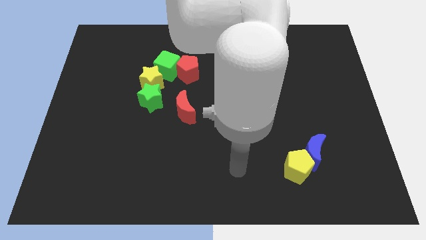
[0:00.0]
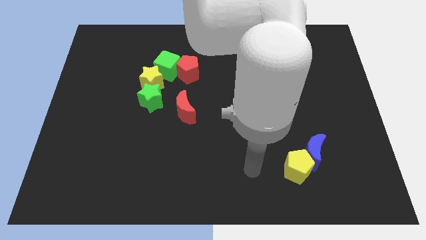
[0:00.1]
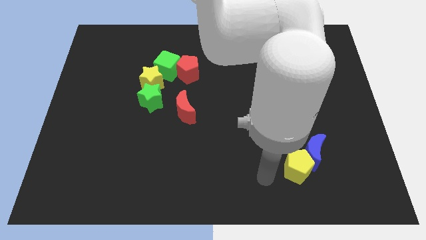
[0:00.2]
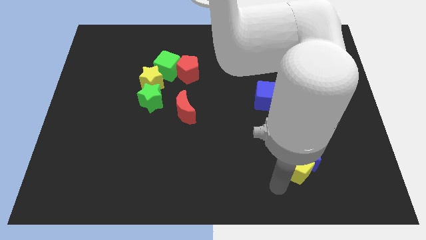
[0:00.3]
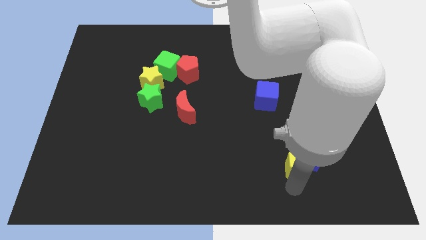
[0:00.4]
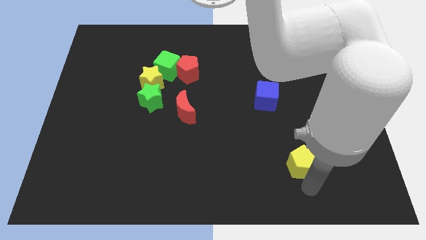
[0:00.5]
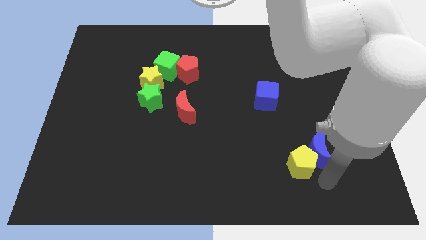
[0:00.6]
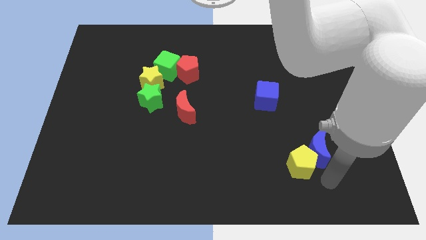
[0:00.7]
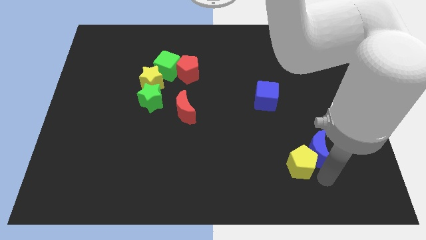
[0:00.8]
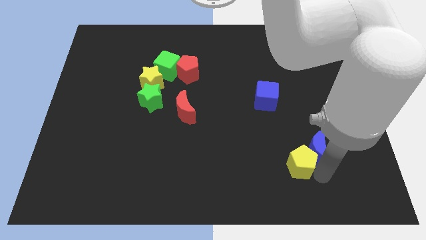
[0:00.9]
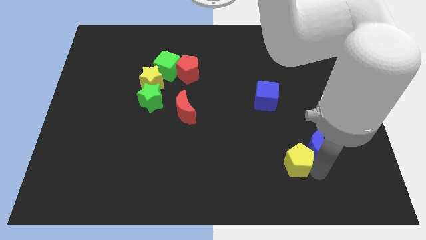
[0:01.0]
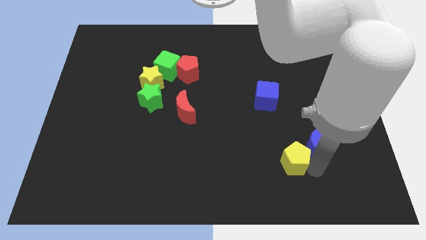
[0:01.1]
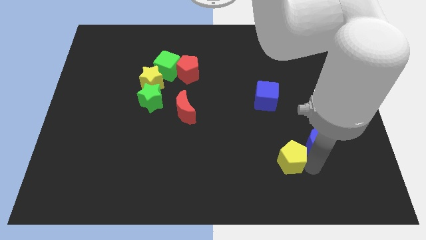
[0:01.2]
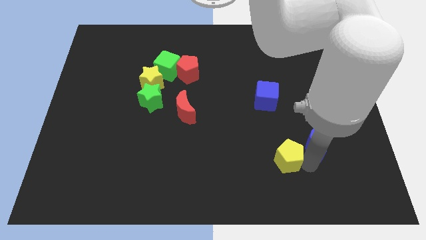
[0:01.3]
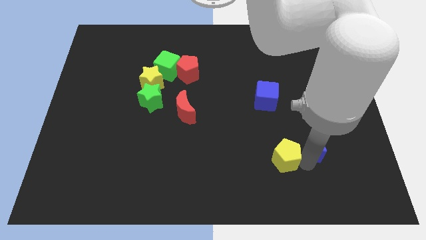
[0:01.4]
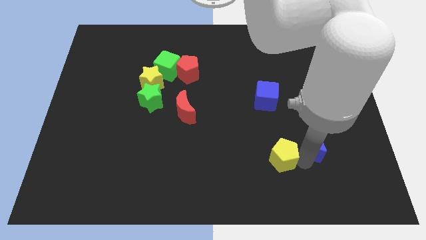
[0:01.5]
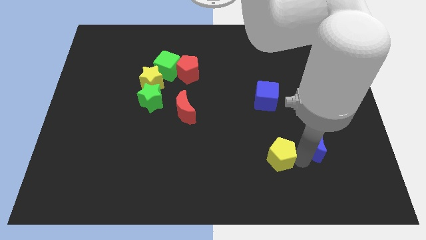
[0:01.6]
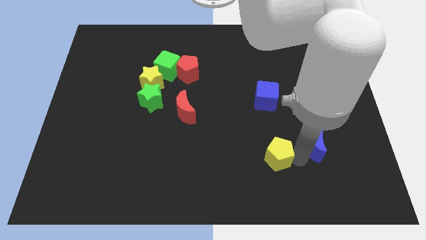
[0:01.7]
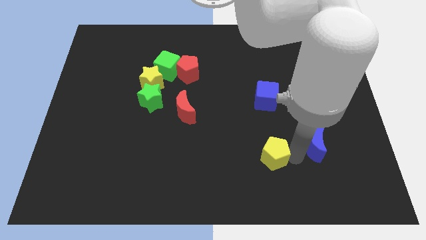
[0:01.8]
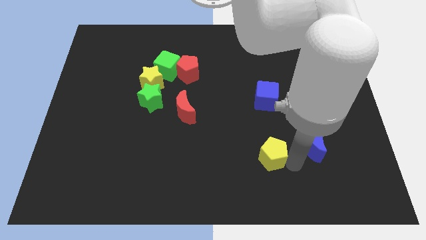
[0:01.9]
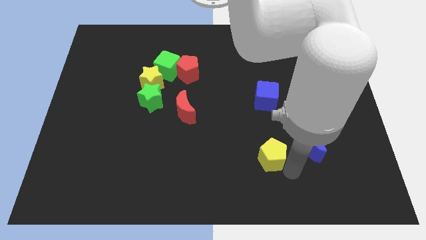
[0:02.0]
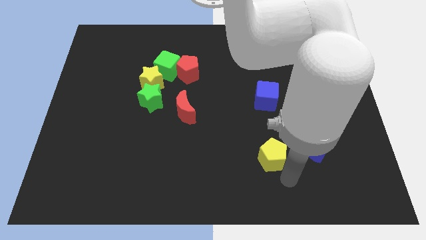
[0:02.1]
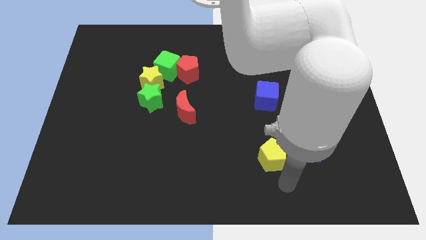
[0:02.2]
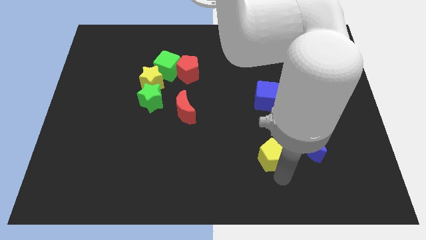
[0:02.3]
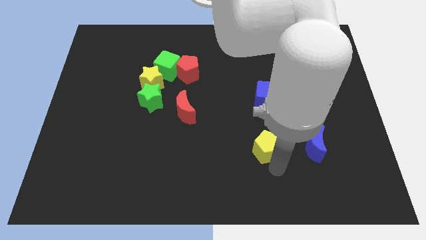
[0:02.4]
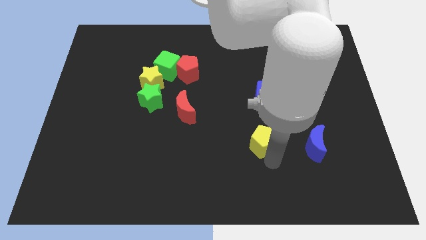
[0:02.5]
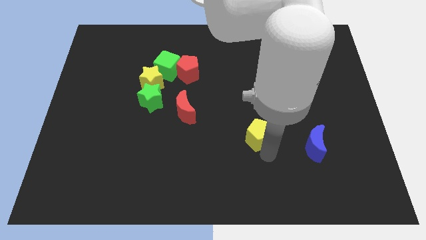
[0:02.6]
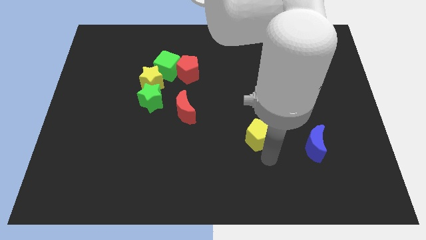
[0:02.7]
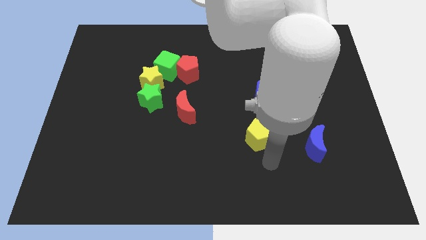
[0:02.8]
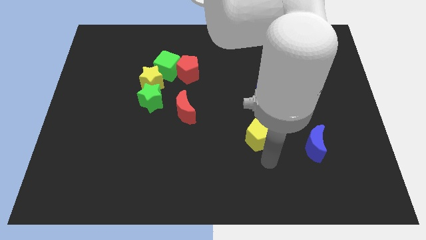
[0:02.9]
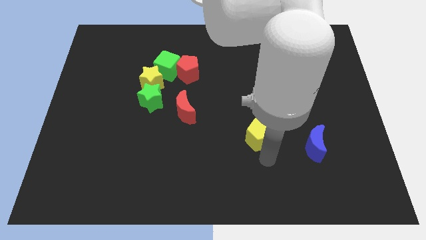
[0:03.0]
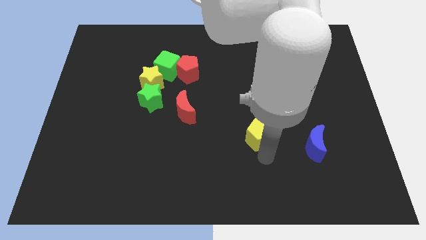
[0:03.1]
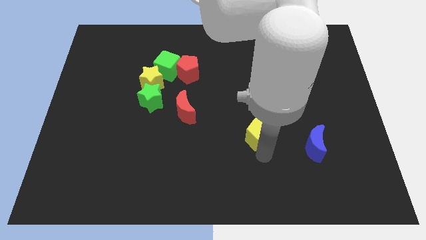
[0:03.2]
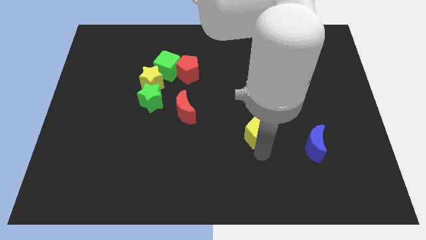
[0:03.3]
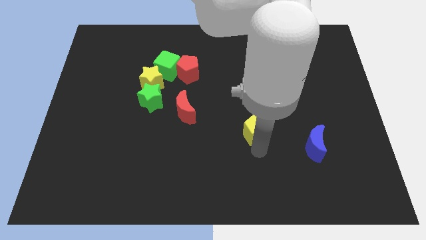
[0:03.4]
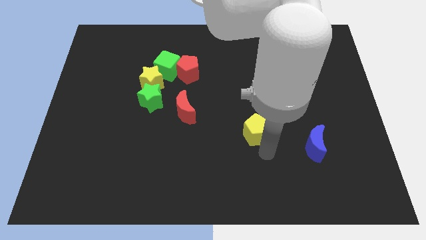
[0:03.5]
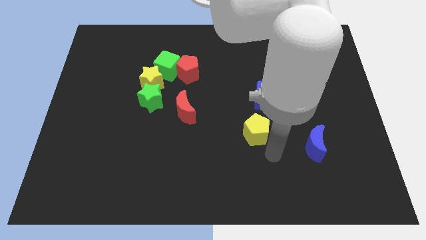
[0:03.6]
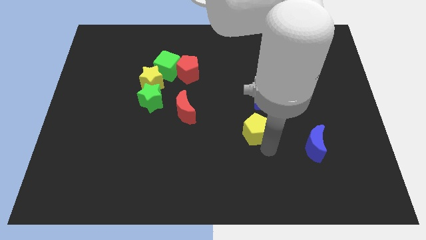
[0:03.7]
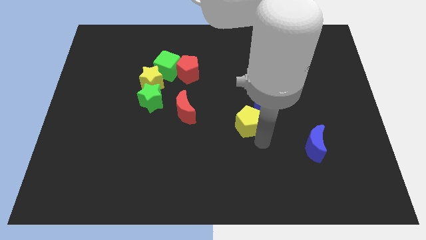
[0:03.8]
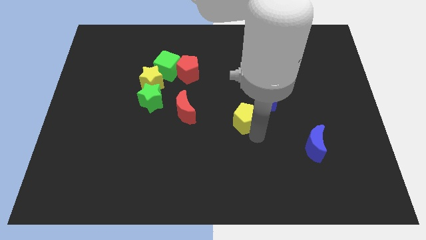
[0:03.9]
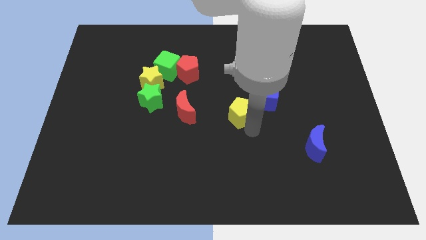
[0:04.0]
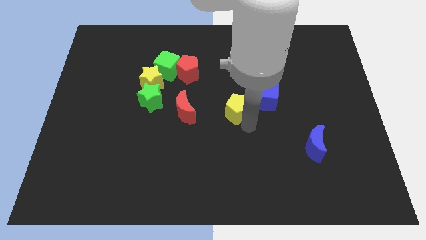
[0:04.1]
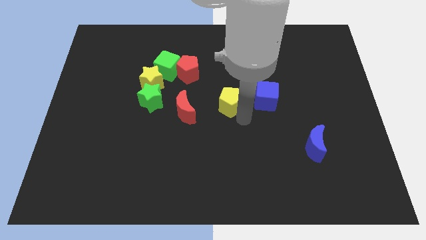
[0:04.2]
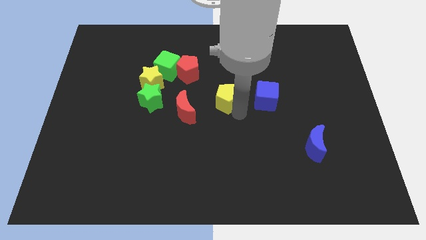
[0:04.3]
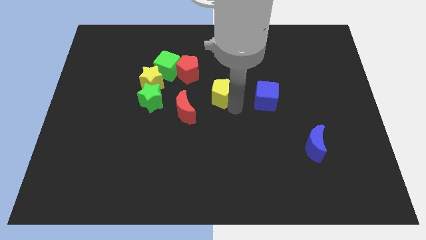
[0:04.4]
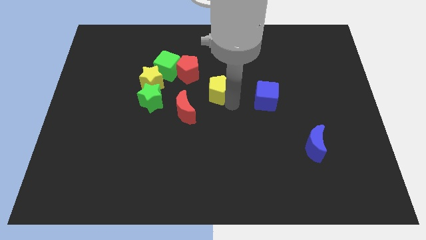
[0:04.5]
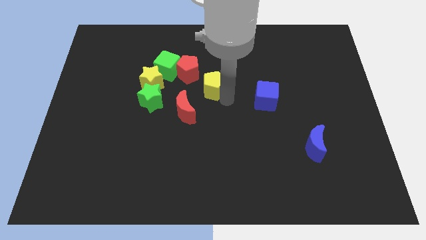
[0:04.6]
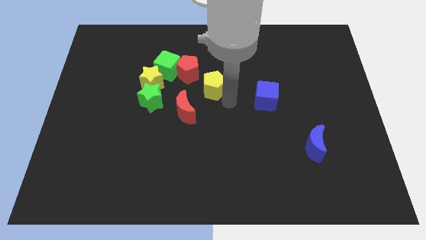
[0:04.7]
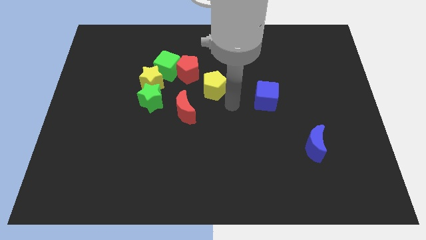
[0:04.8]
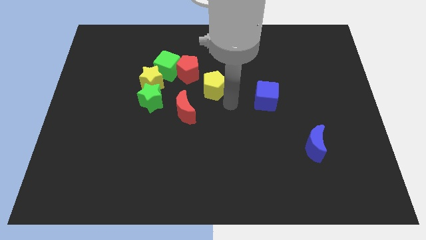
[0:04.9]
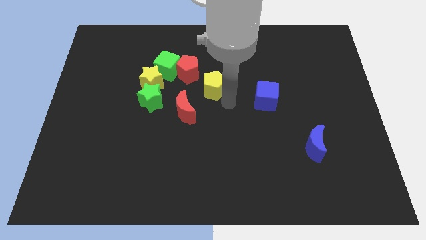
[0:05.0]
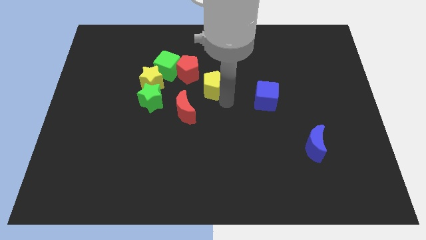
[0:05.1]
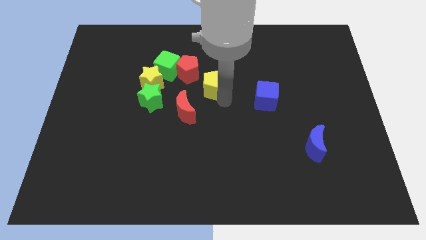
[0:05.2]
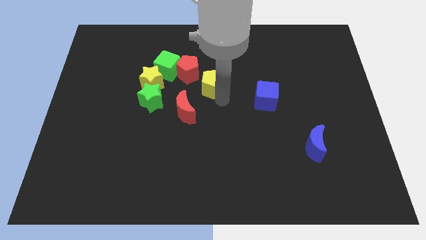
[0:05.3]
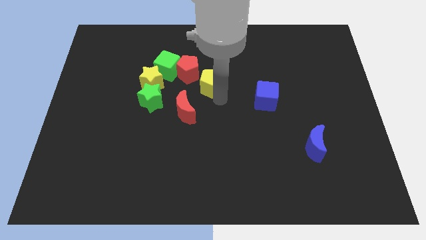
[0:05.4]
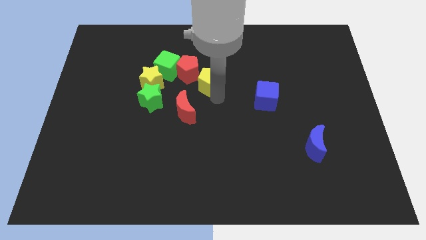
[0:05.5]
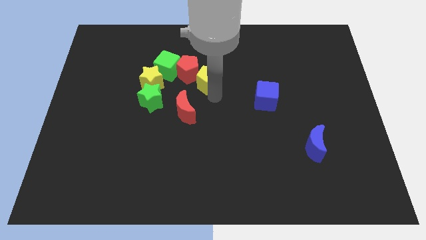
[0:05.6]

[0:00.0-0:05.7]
slide the yellow pentagon towards the red pentagon

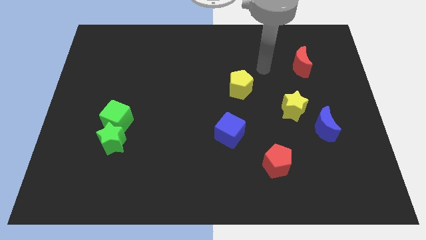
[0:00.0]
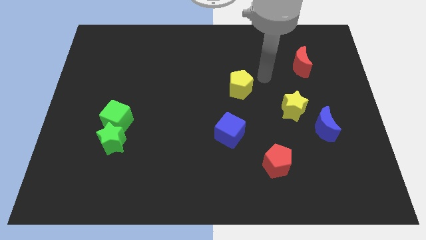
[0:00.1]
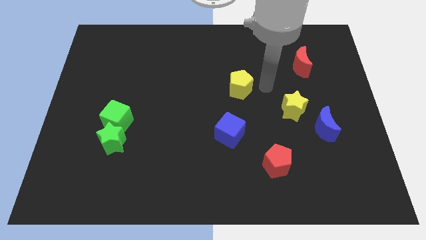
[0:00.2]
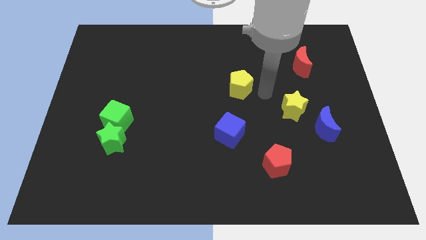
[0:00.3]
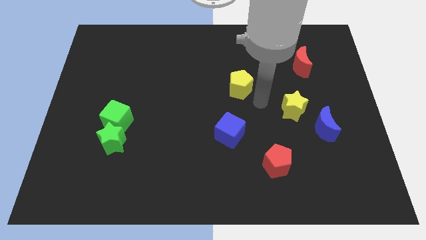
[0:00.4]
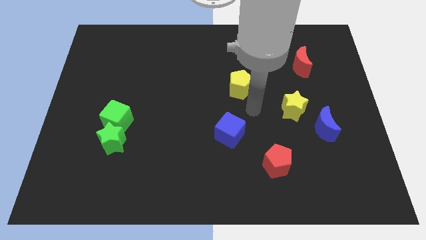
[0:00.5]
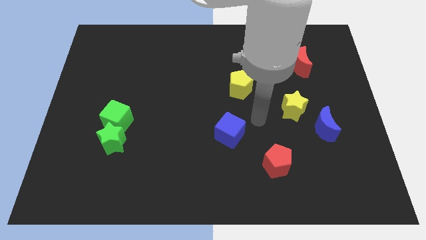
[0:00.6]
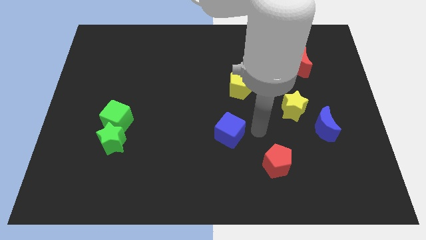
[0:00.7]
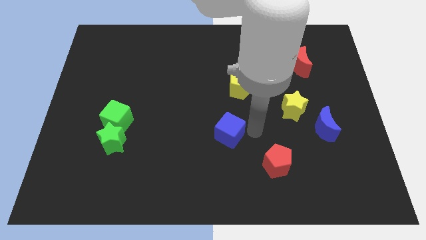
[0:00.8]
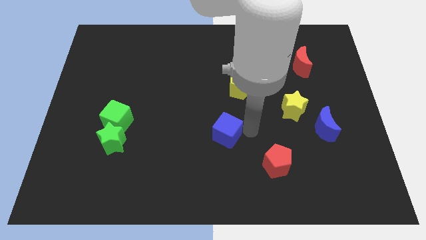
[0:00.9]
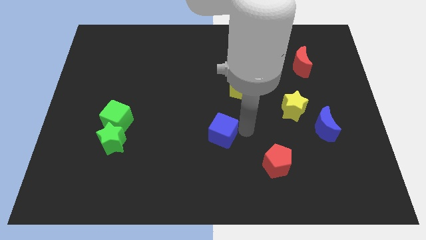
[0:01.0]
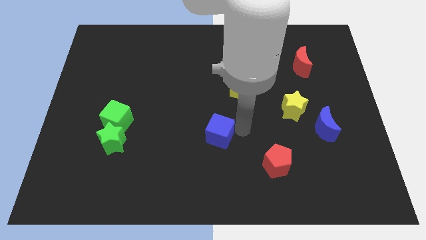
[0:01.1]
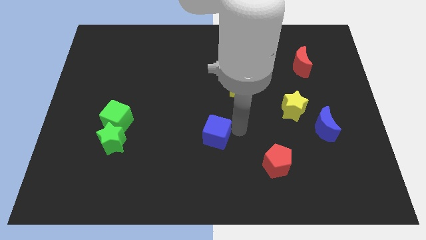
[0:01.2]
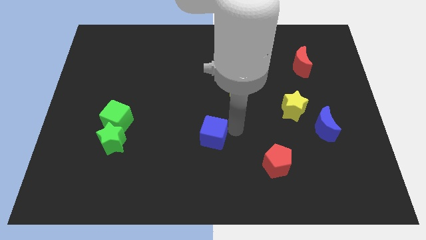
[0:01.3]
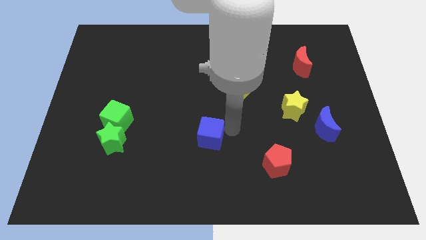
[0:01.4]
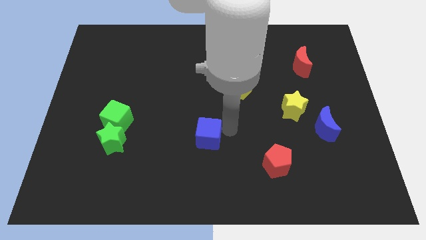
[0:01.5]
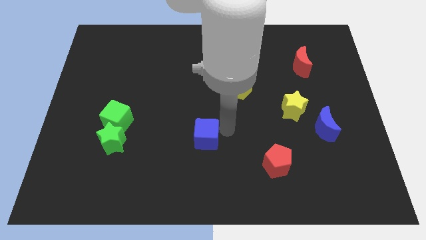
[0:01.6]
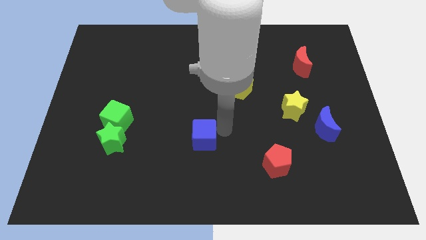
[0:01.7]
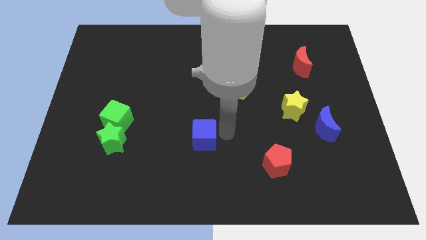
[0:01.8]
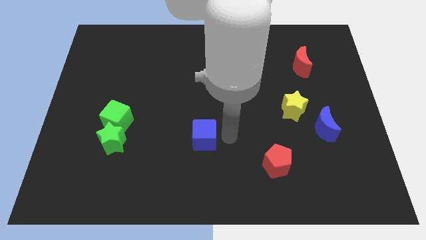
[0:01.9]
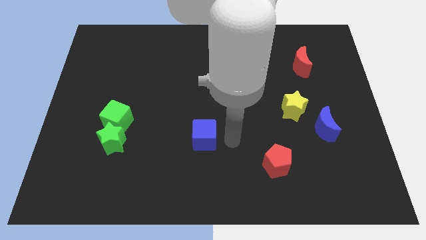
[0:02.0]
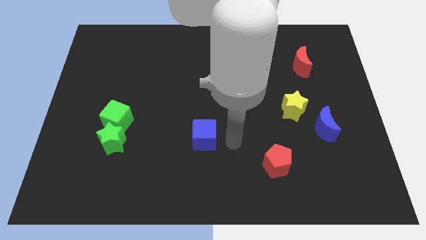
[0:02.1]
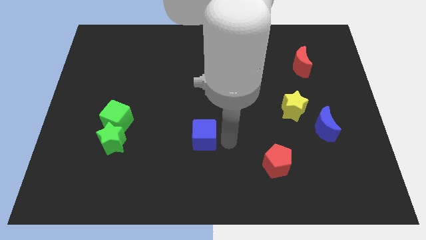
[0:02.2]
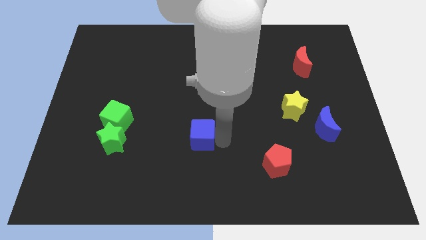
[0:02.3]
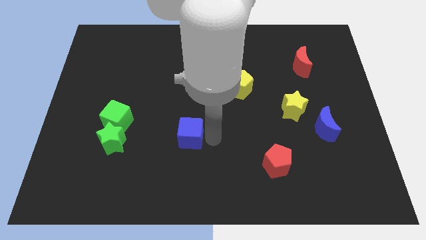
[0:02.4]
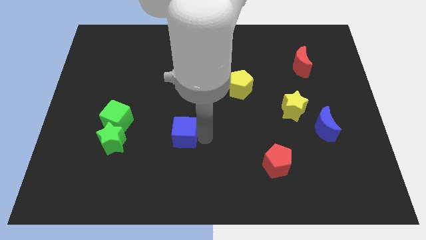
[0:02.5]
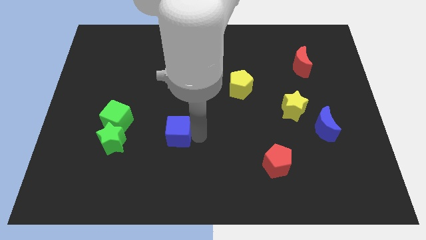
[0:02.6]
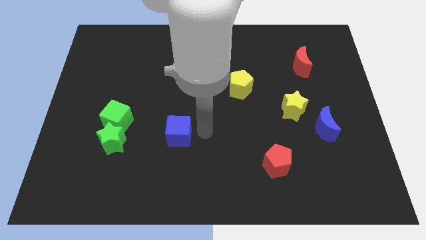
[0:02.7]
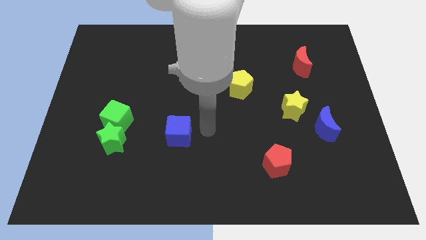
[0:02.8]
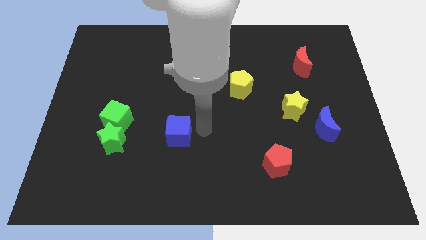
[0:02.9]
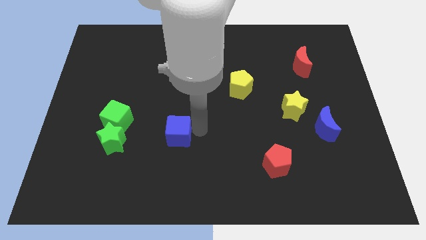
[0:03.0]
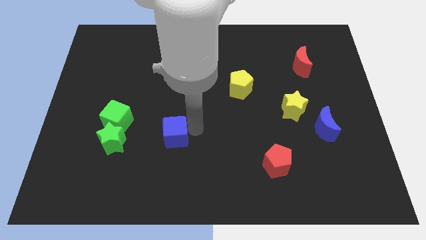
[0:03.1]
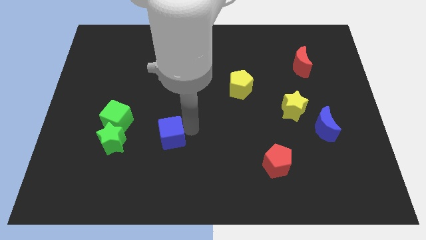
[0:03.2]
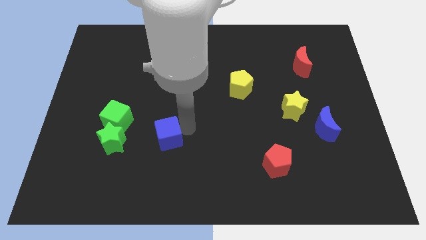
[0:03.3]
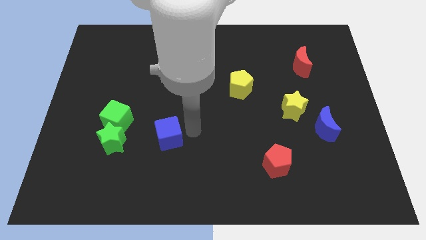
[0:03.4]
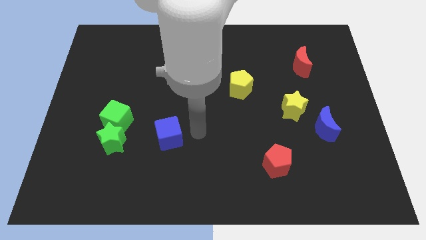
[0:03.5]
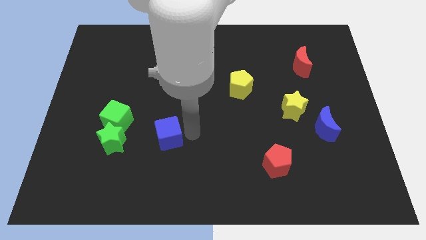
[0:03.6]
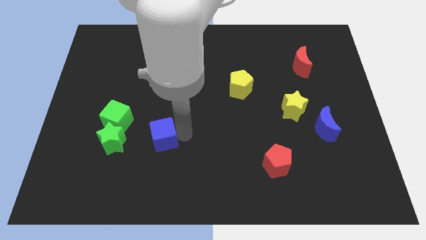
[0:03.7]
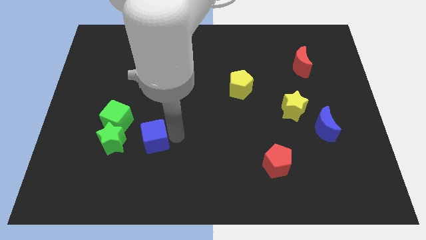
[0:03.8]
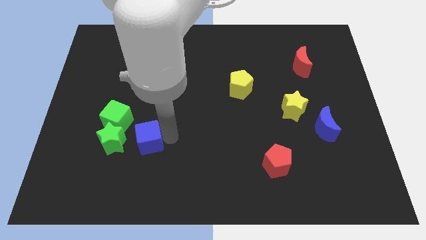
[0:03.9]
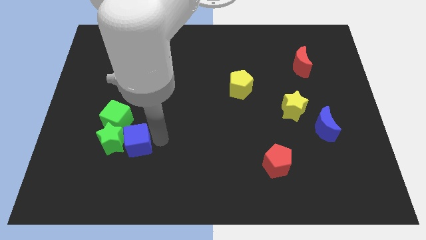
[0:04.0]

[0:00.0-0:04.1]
put the blue cube next to the green star
